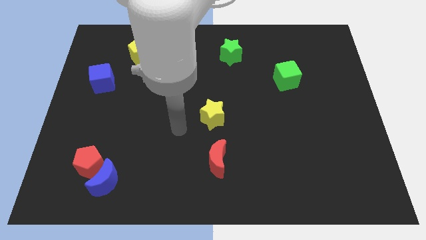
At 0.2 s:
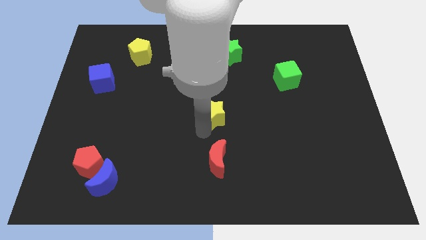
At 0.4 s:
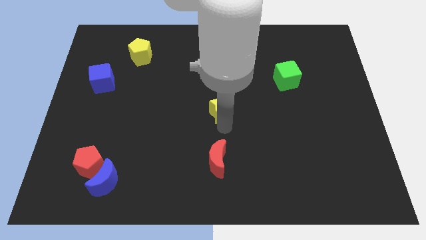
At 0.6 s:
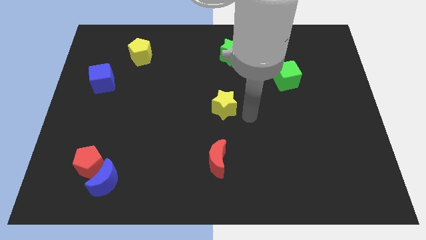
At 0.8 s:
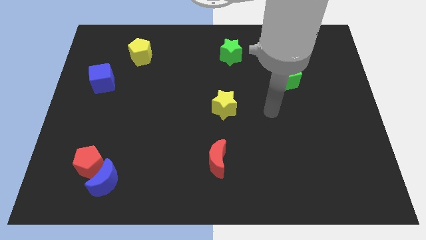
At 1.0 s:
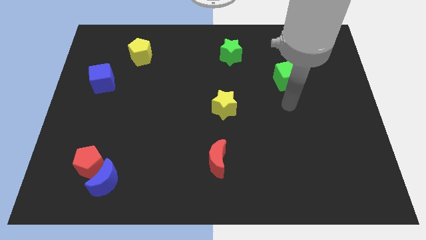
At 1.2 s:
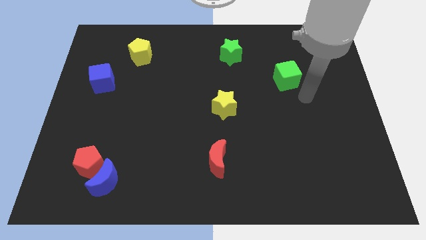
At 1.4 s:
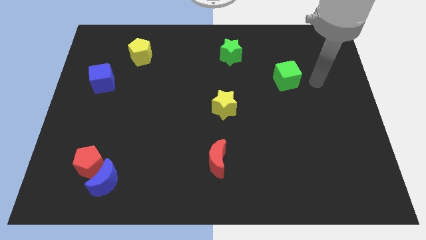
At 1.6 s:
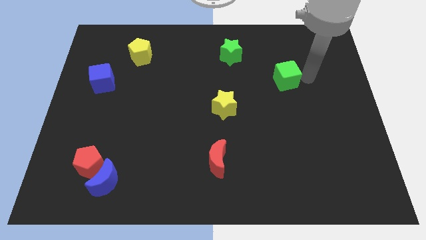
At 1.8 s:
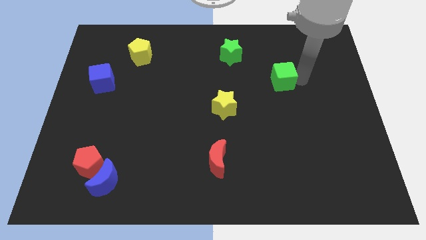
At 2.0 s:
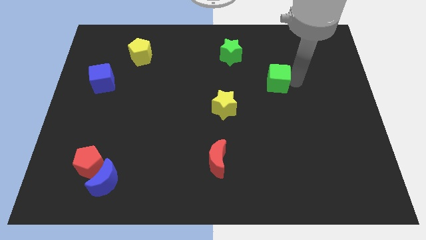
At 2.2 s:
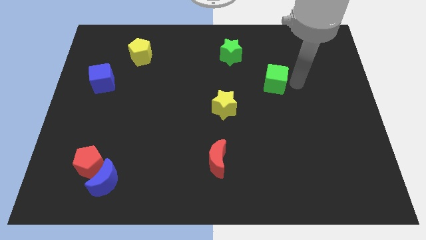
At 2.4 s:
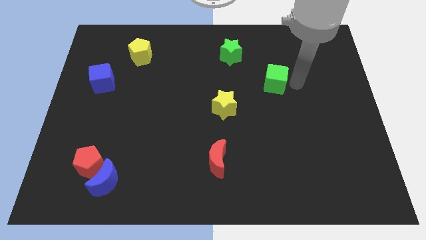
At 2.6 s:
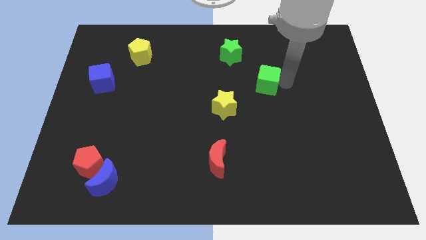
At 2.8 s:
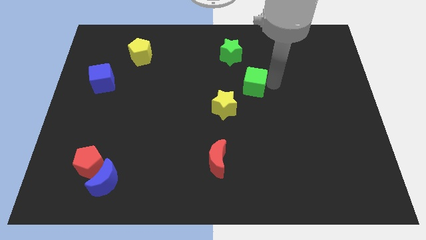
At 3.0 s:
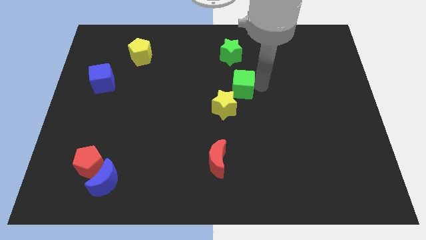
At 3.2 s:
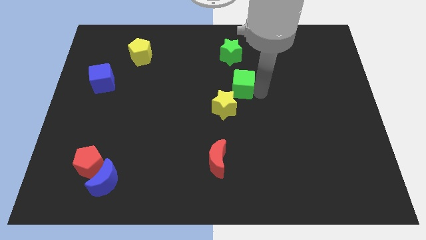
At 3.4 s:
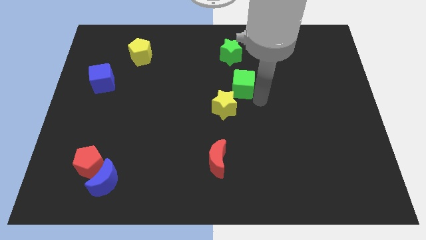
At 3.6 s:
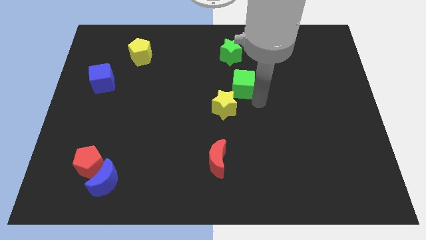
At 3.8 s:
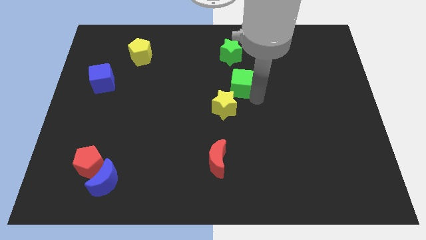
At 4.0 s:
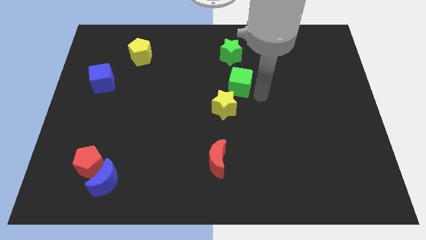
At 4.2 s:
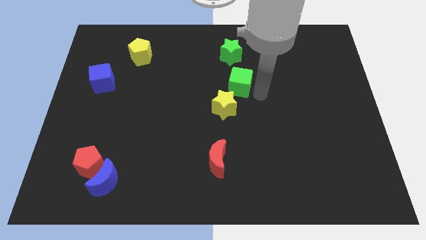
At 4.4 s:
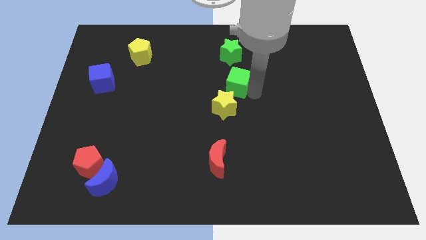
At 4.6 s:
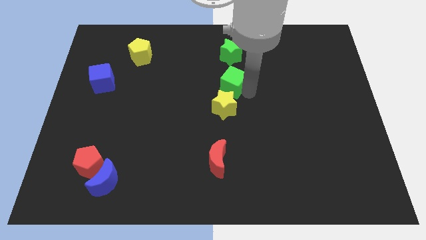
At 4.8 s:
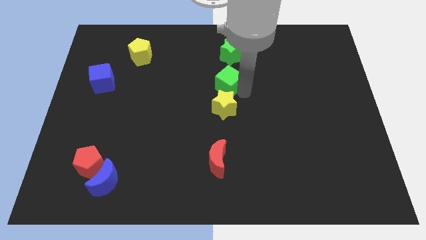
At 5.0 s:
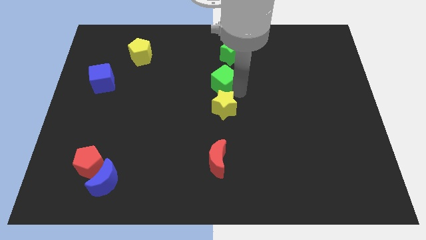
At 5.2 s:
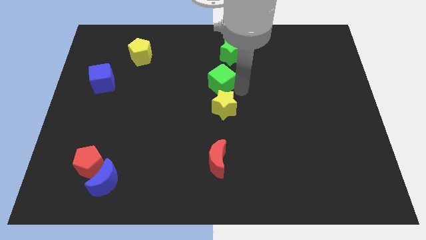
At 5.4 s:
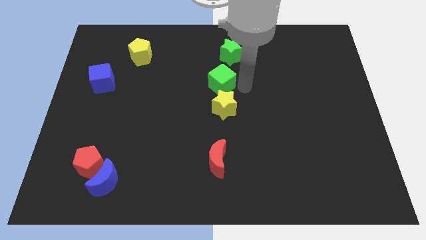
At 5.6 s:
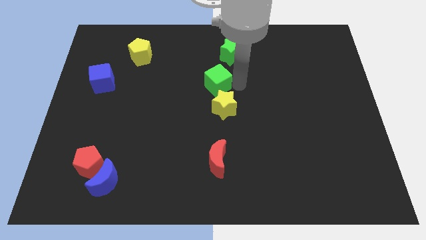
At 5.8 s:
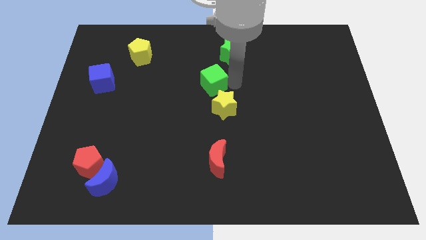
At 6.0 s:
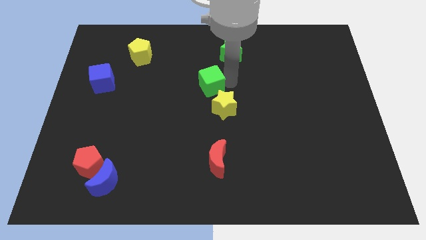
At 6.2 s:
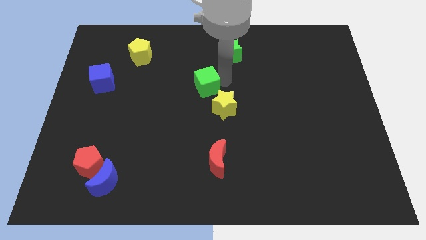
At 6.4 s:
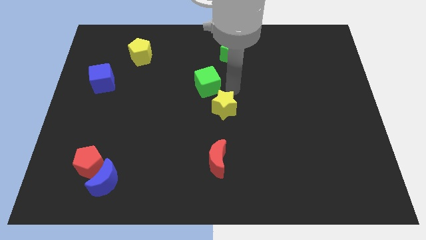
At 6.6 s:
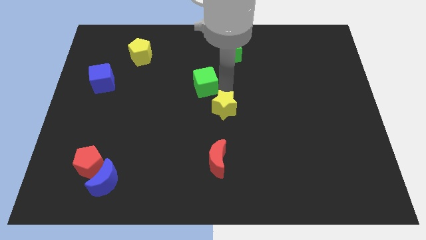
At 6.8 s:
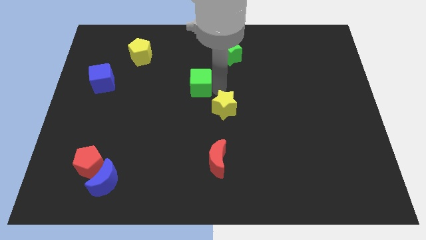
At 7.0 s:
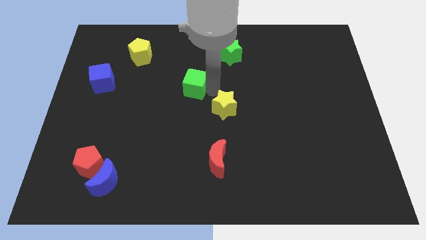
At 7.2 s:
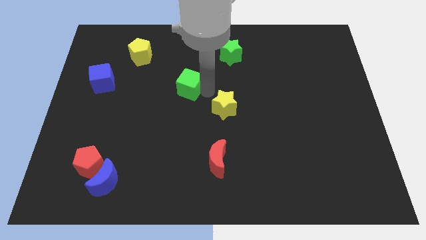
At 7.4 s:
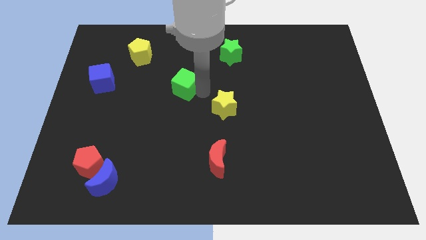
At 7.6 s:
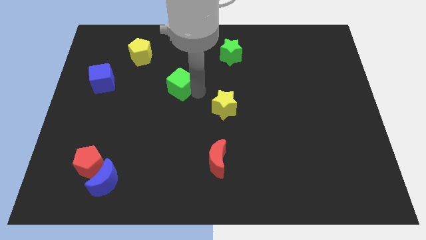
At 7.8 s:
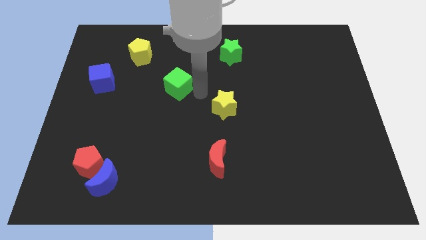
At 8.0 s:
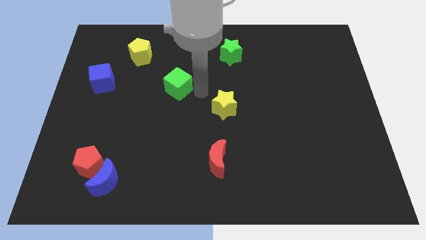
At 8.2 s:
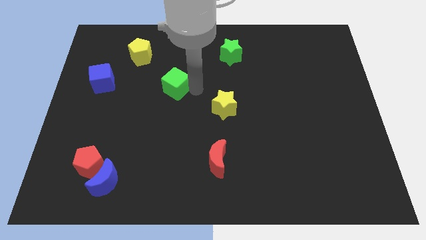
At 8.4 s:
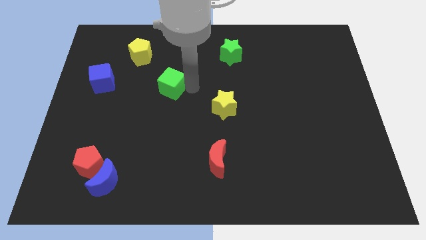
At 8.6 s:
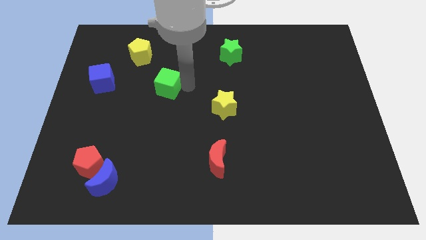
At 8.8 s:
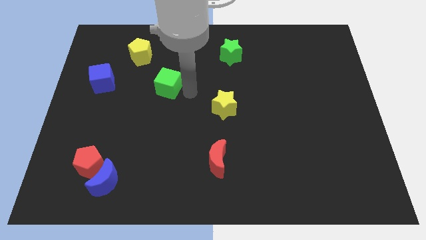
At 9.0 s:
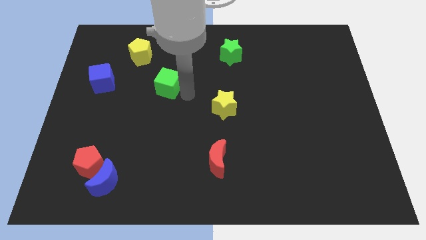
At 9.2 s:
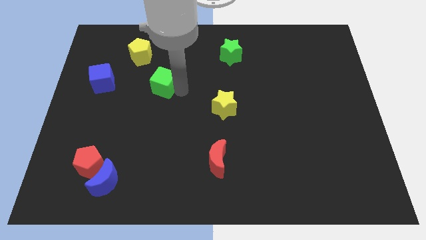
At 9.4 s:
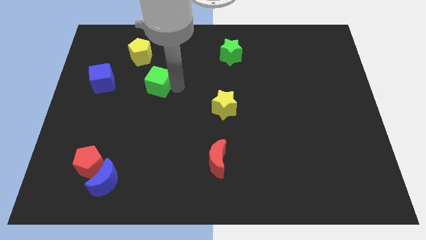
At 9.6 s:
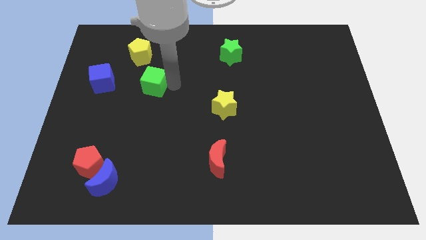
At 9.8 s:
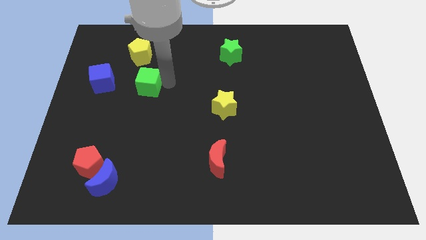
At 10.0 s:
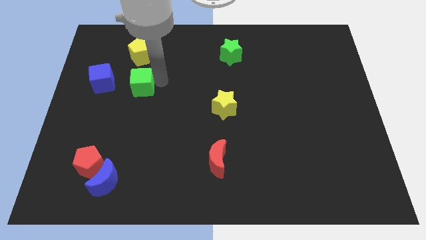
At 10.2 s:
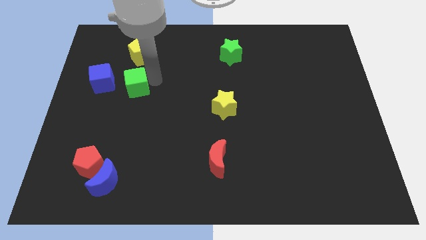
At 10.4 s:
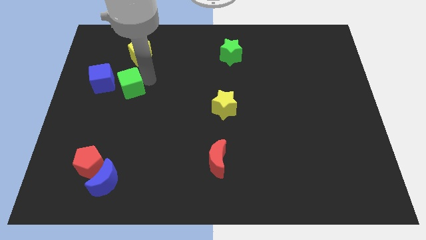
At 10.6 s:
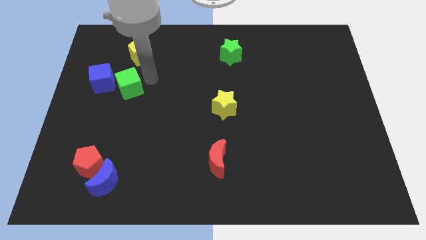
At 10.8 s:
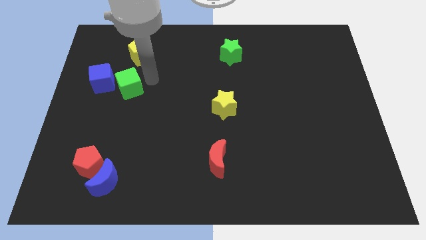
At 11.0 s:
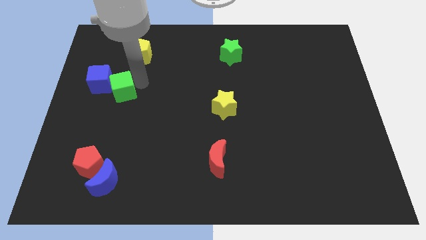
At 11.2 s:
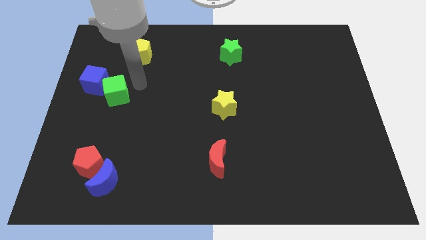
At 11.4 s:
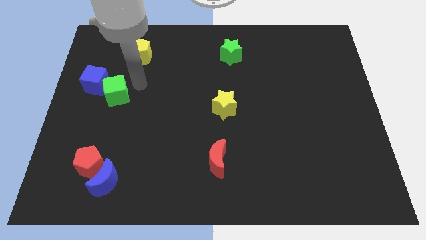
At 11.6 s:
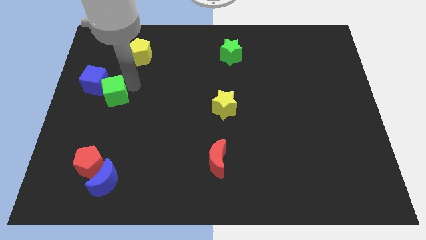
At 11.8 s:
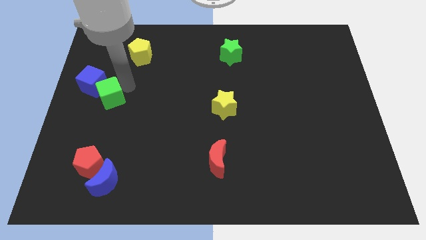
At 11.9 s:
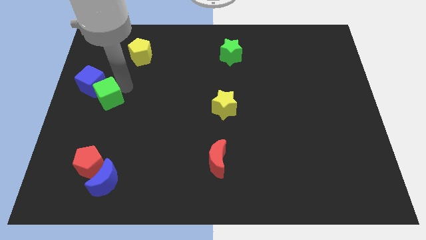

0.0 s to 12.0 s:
push the green cube to the center left

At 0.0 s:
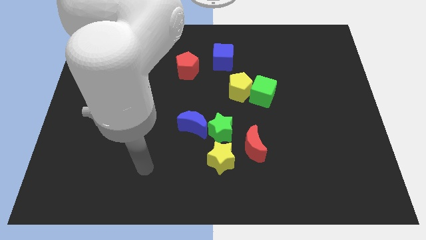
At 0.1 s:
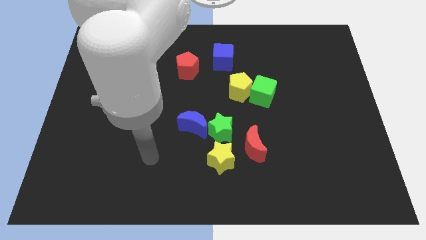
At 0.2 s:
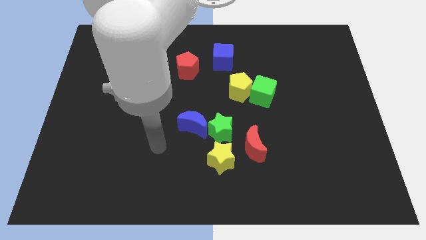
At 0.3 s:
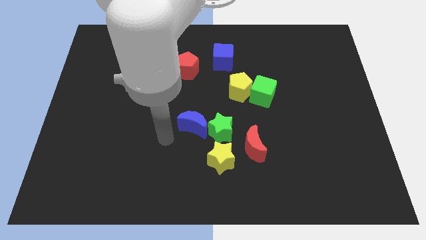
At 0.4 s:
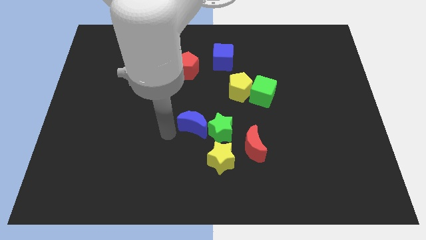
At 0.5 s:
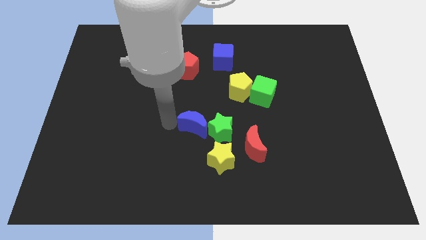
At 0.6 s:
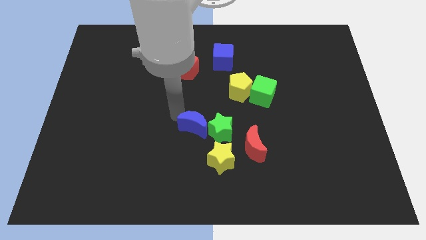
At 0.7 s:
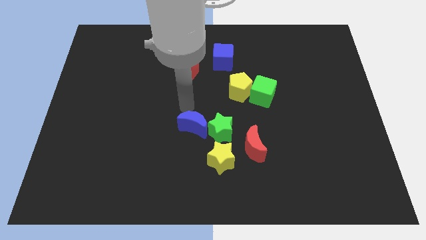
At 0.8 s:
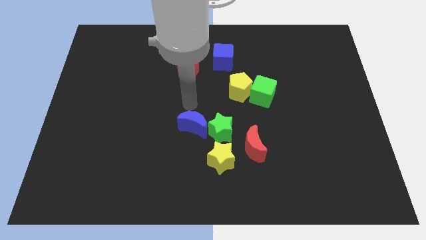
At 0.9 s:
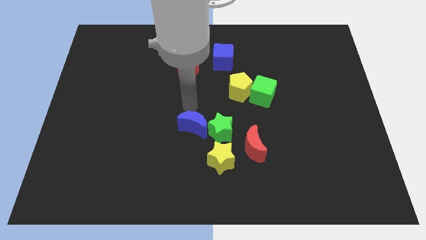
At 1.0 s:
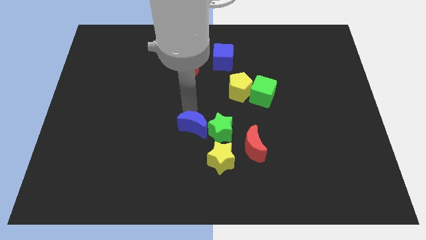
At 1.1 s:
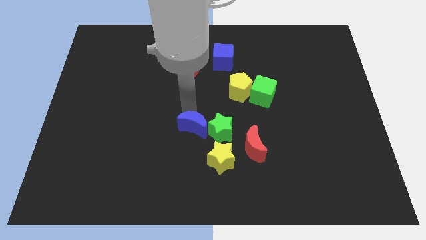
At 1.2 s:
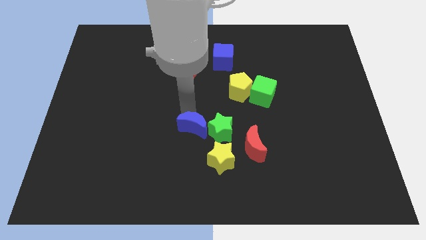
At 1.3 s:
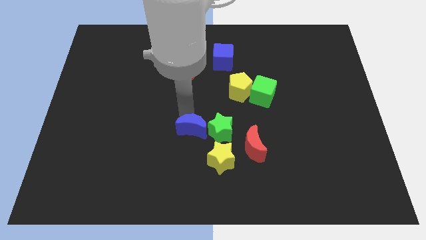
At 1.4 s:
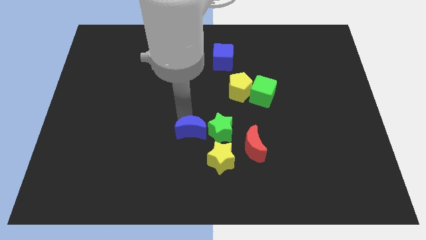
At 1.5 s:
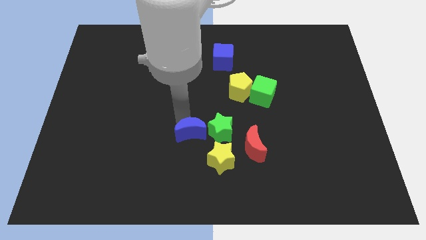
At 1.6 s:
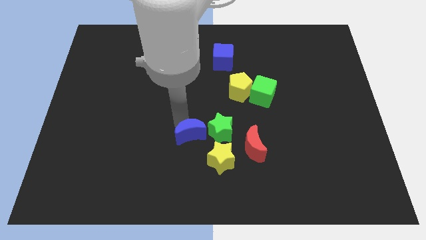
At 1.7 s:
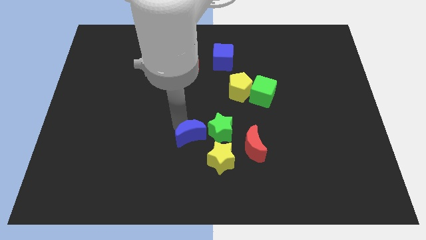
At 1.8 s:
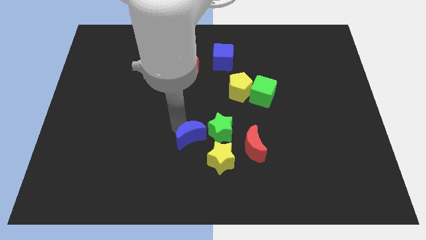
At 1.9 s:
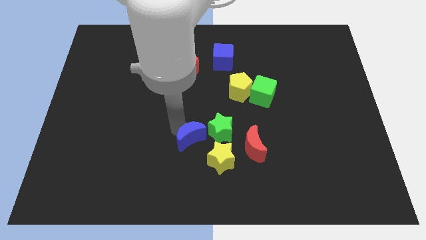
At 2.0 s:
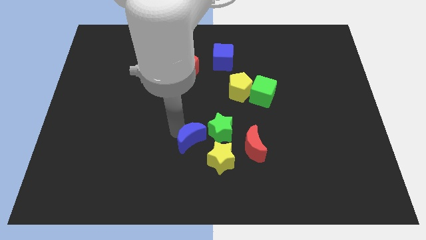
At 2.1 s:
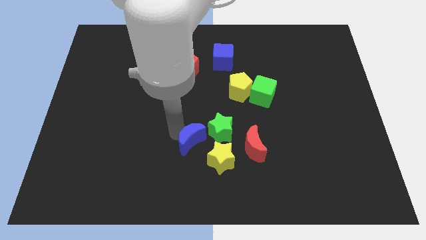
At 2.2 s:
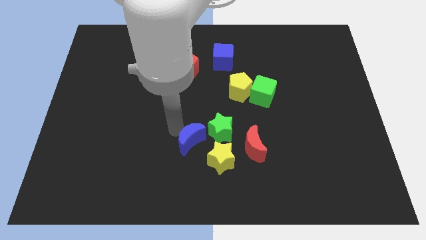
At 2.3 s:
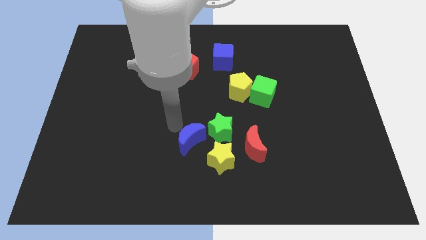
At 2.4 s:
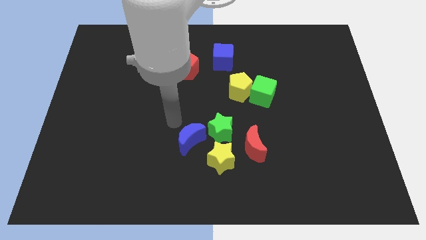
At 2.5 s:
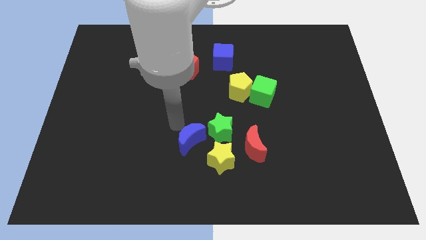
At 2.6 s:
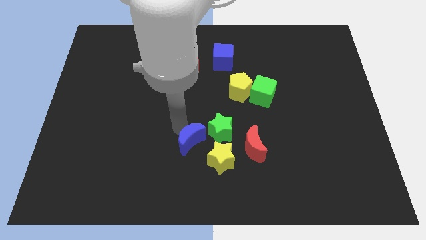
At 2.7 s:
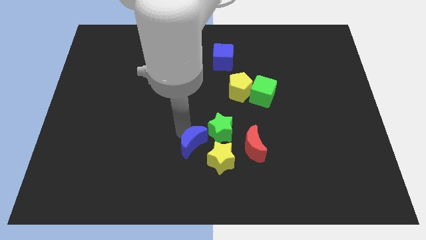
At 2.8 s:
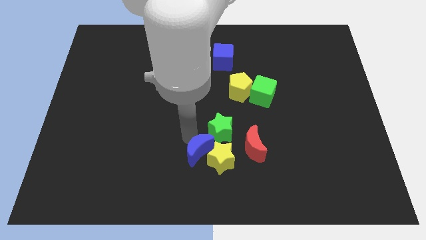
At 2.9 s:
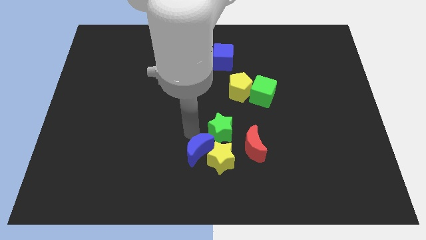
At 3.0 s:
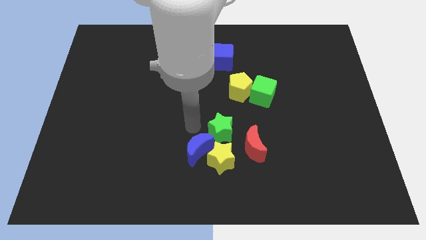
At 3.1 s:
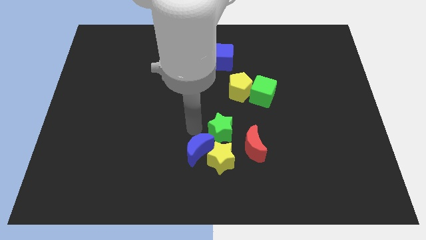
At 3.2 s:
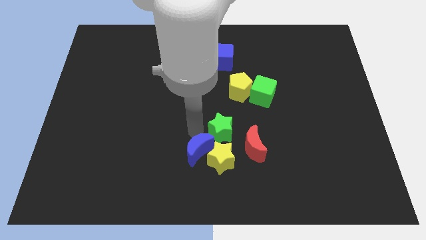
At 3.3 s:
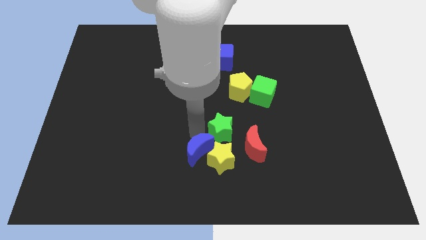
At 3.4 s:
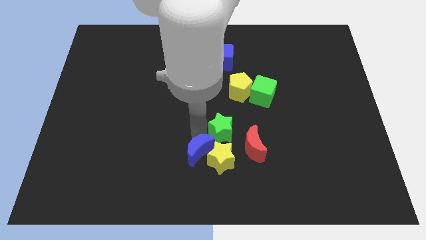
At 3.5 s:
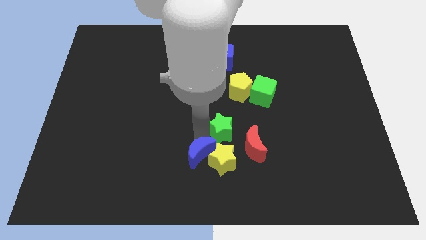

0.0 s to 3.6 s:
put the blue moon to the bottom
